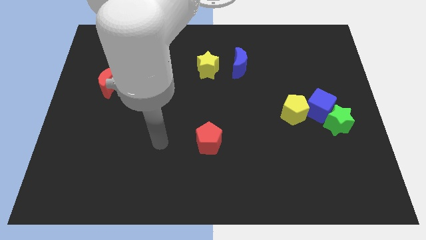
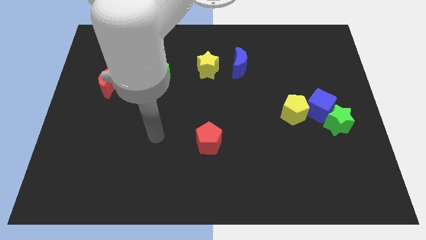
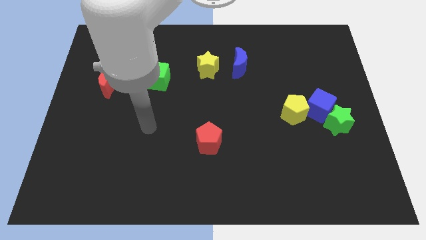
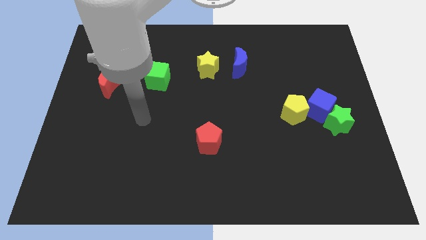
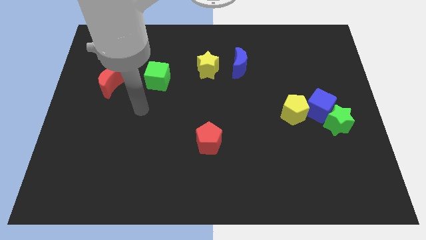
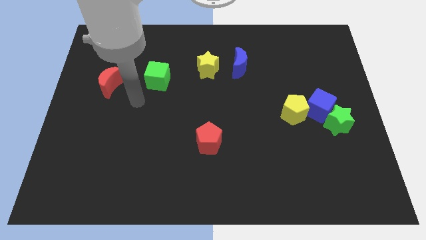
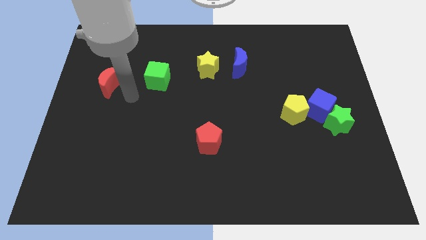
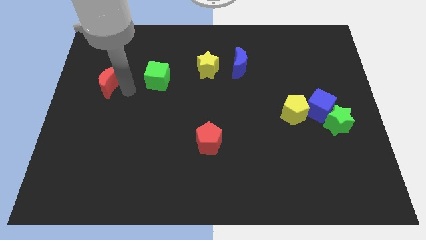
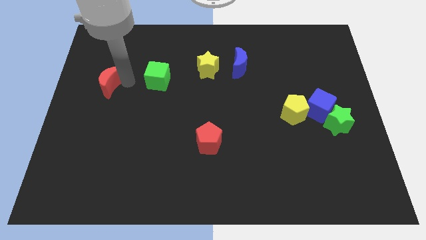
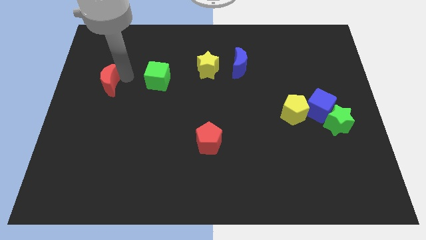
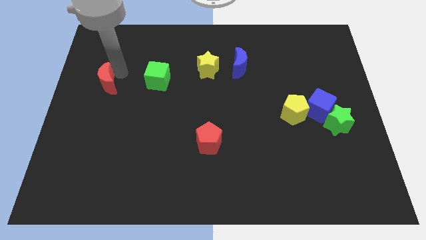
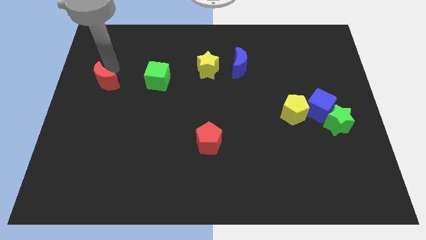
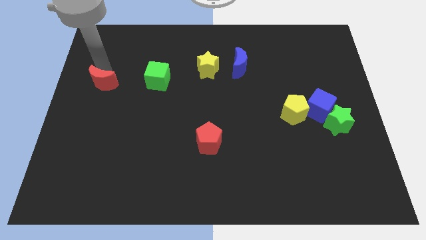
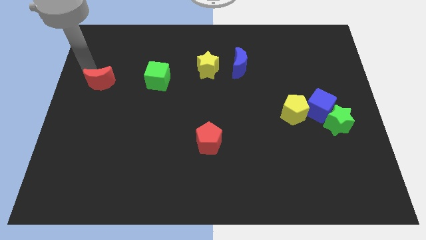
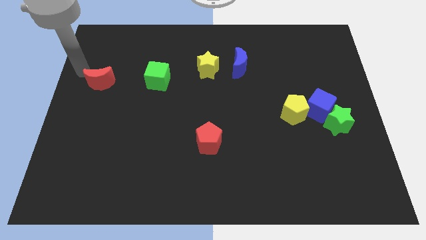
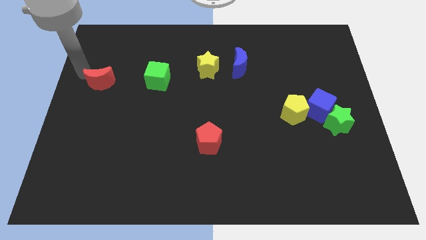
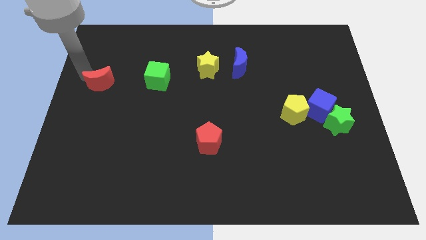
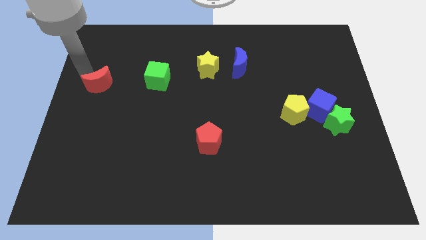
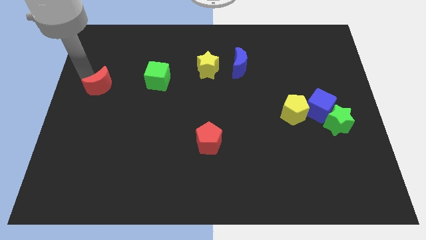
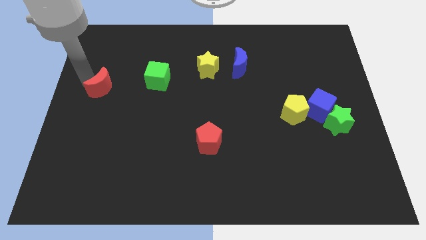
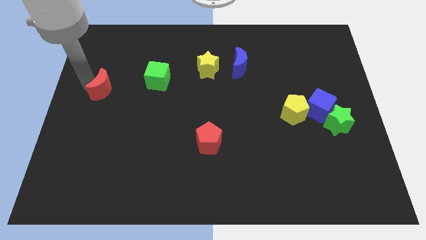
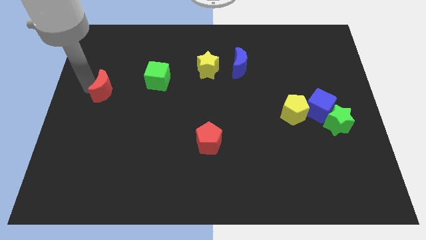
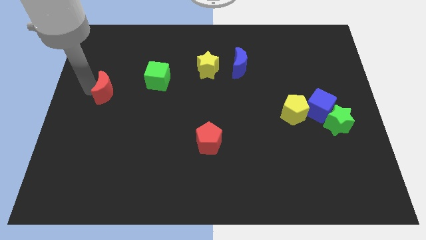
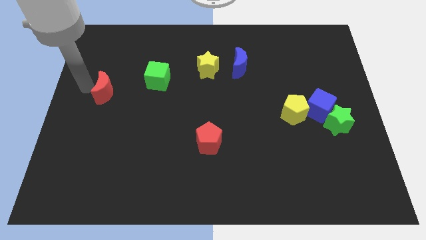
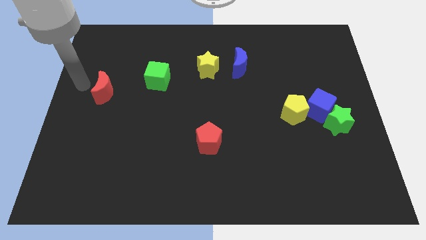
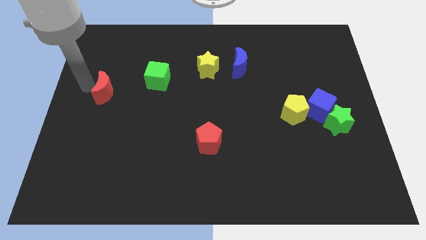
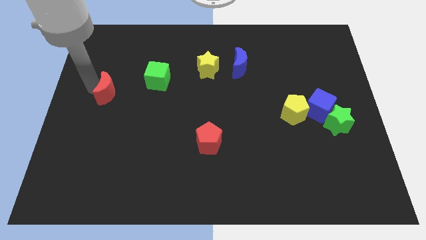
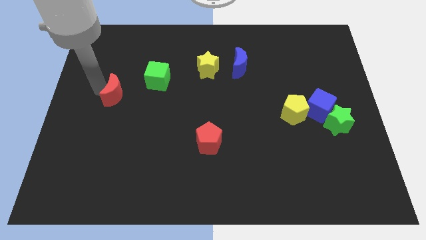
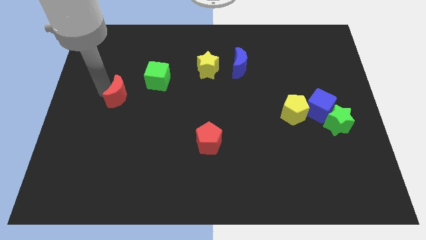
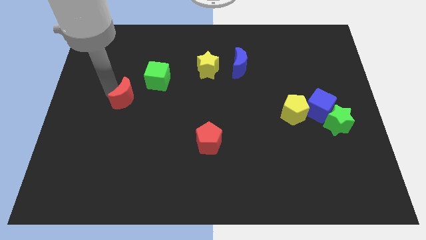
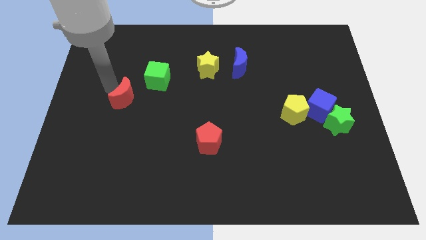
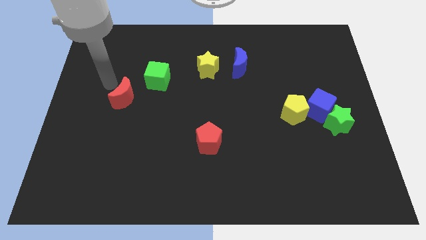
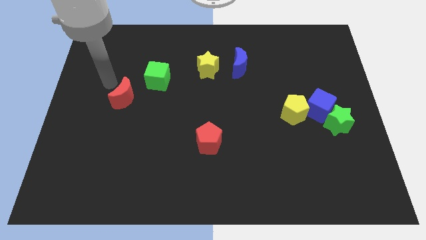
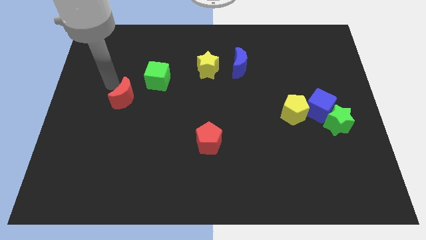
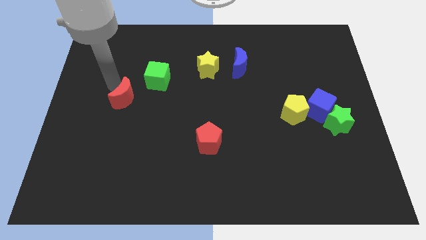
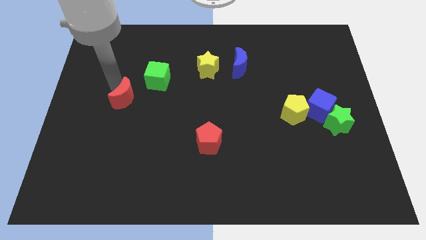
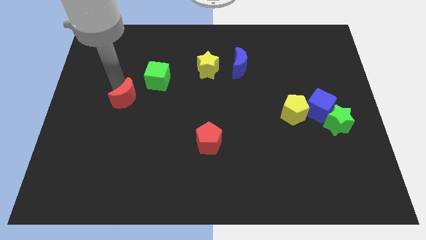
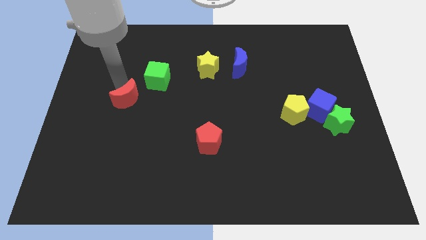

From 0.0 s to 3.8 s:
slightly push the red moon diagonally down and right

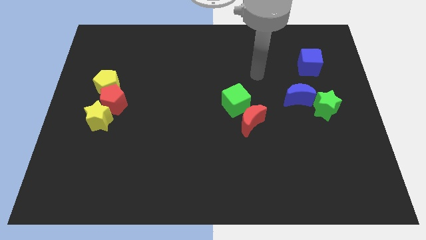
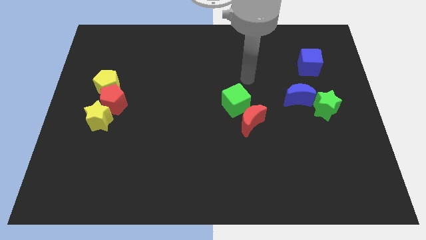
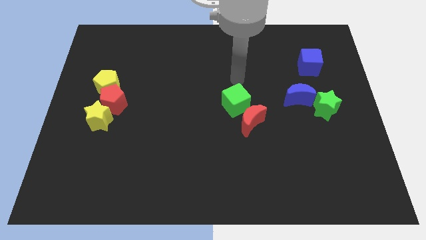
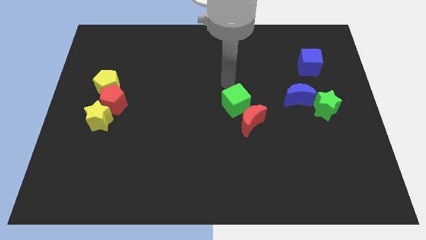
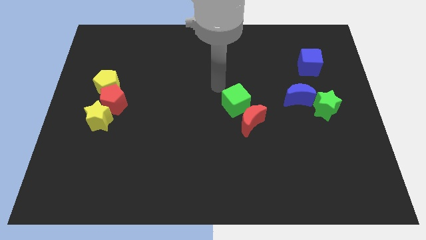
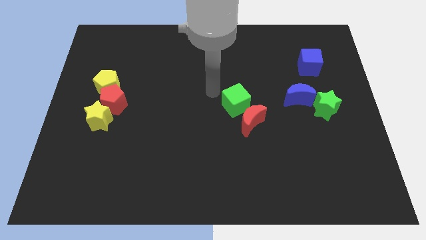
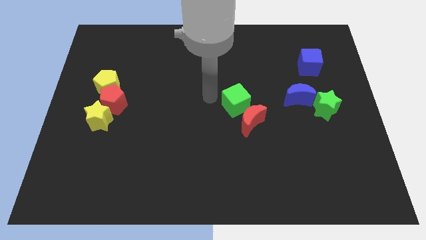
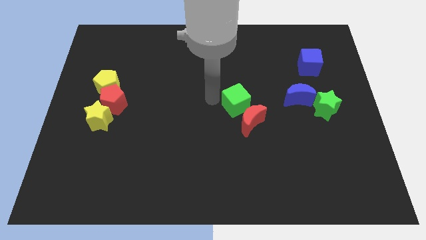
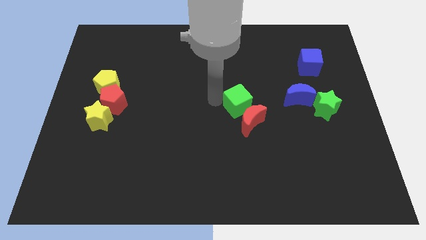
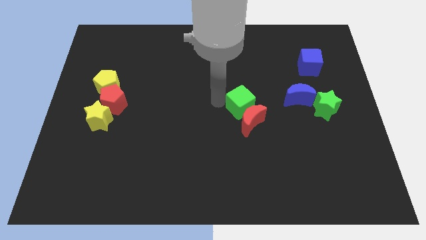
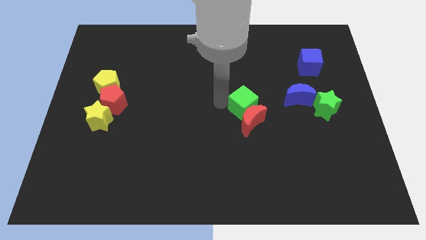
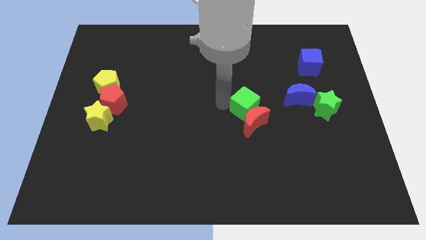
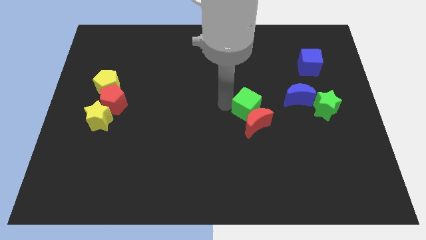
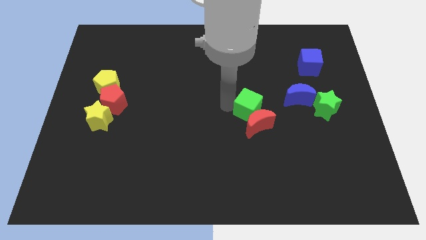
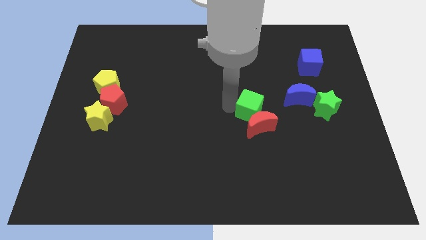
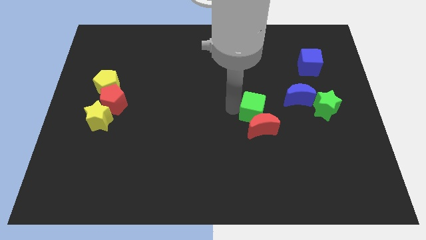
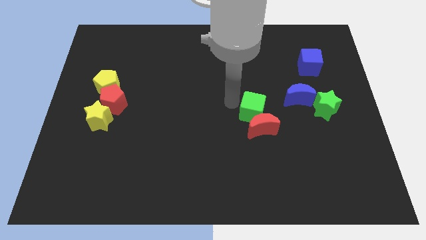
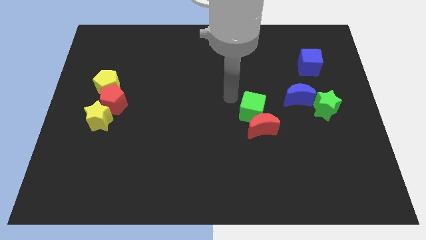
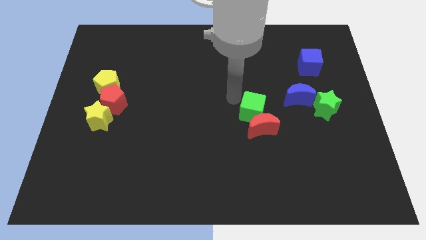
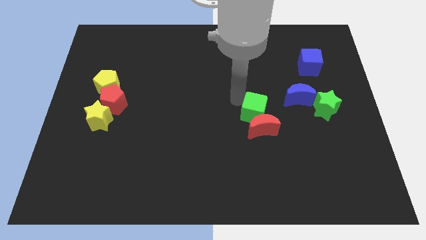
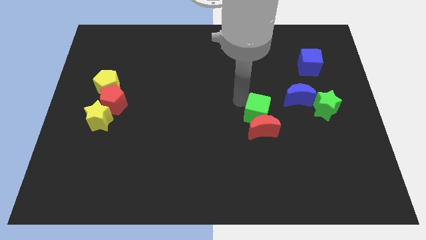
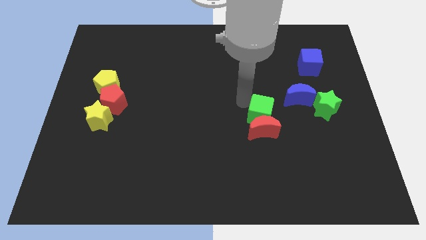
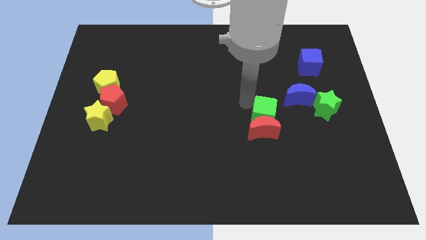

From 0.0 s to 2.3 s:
push the green cube downwards and then to the right a little

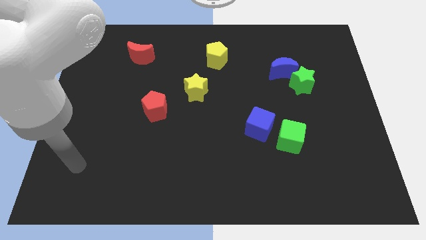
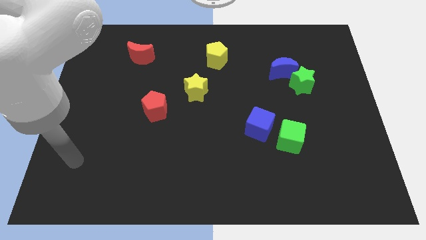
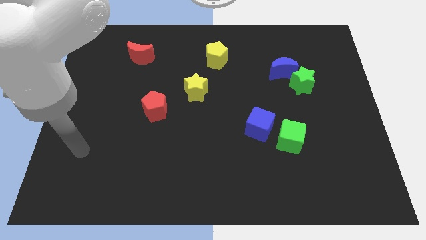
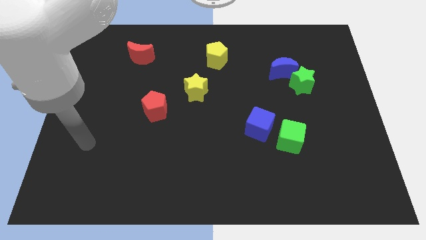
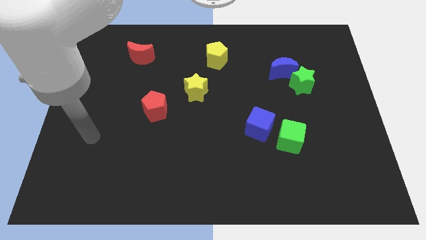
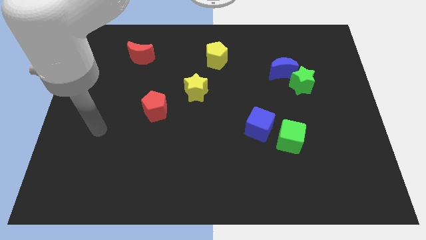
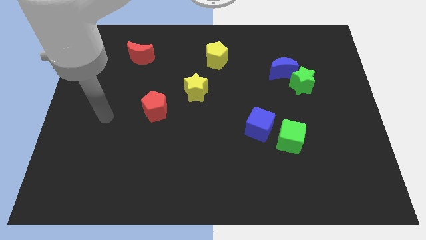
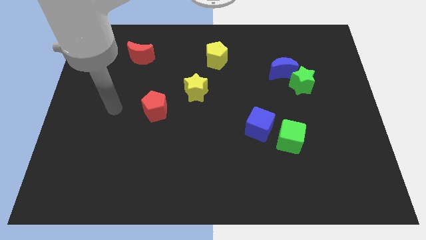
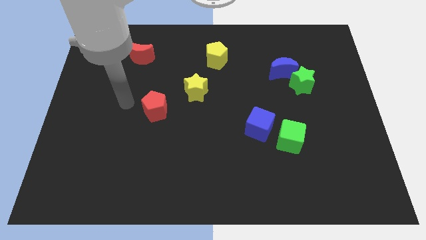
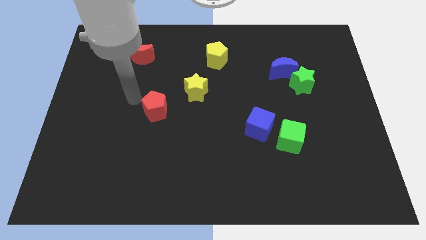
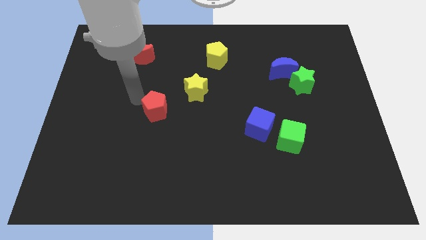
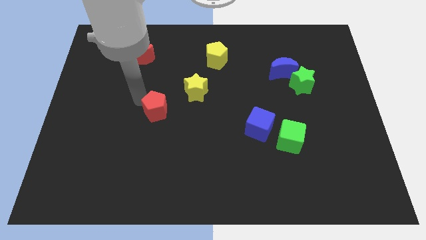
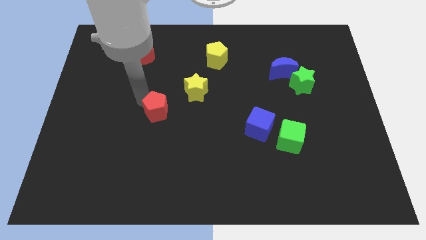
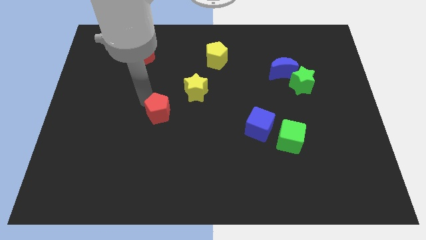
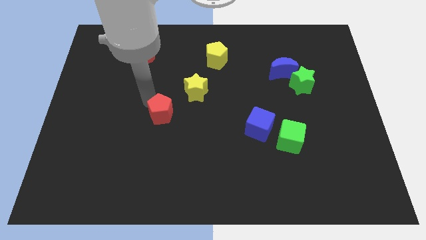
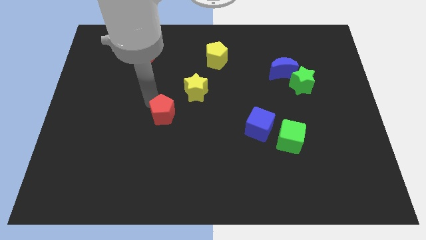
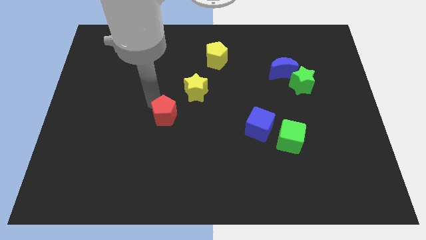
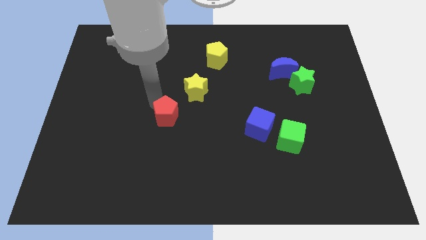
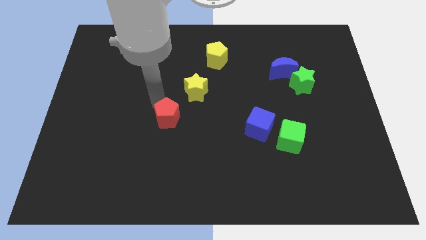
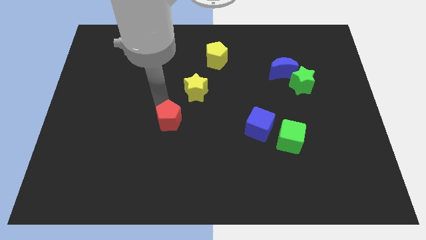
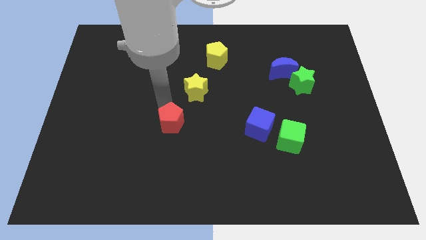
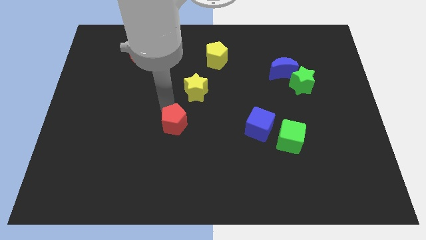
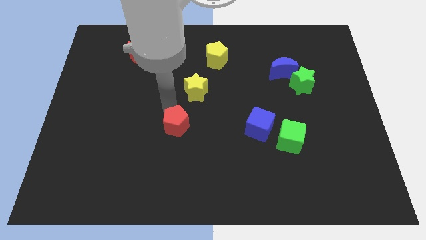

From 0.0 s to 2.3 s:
move the red pentagon somewhat diagonally down and to the right
